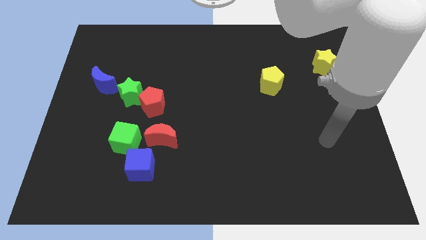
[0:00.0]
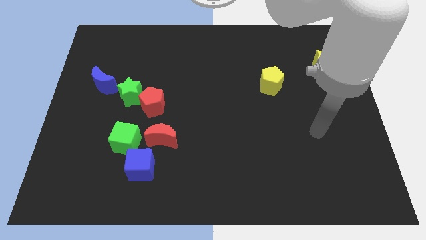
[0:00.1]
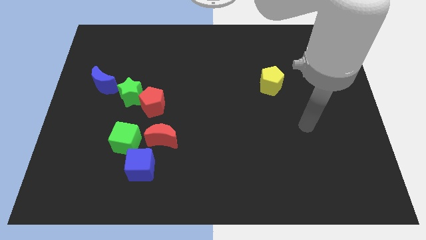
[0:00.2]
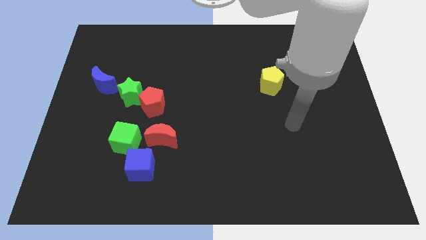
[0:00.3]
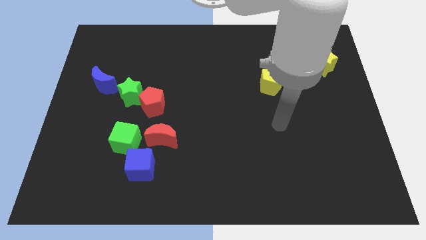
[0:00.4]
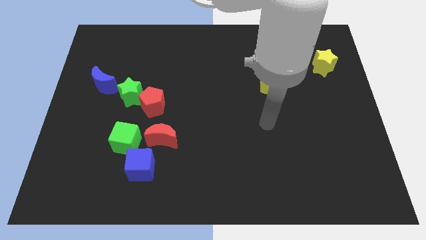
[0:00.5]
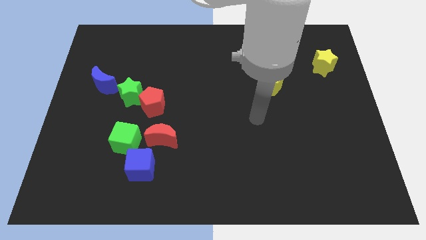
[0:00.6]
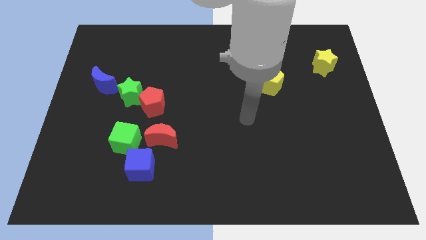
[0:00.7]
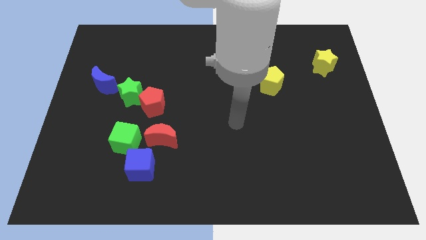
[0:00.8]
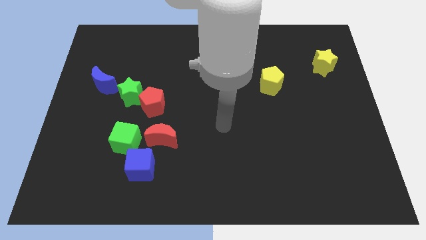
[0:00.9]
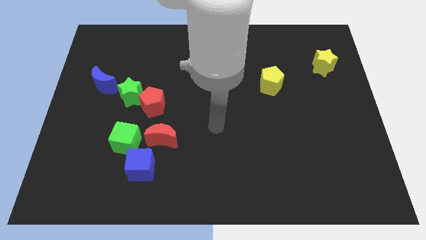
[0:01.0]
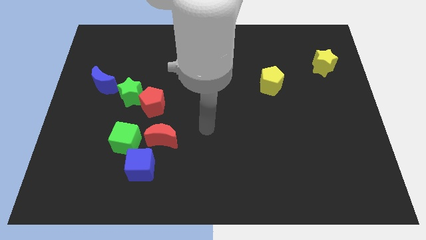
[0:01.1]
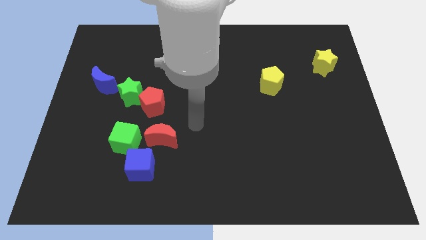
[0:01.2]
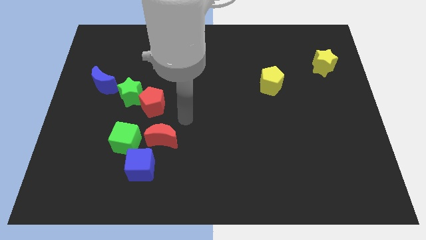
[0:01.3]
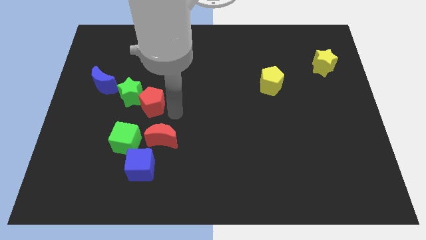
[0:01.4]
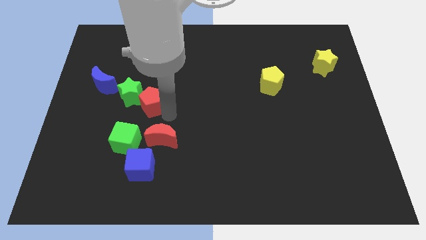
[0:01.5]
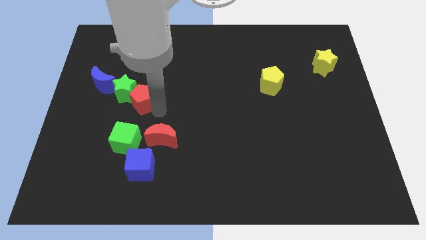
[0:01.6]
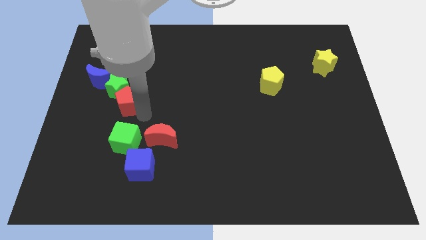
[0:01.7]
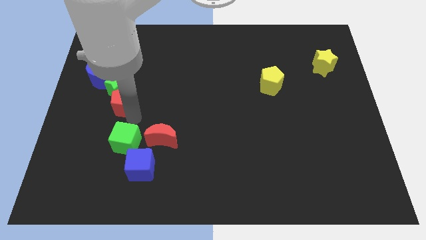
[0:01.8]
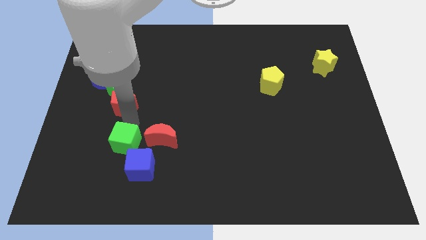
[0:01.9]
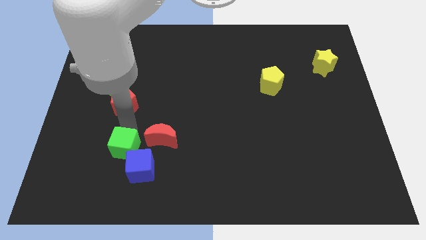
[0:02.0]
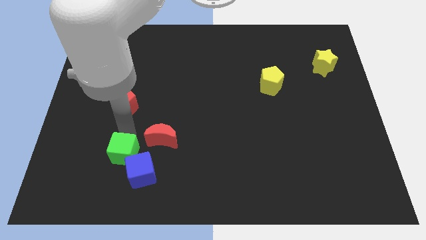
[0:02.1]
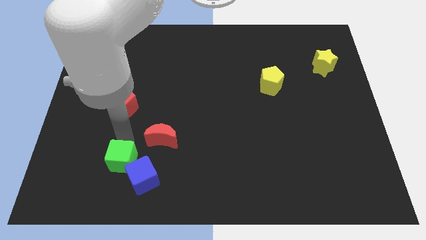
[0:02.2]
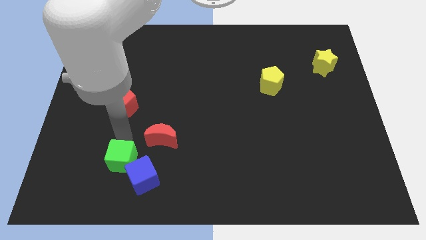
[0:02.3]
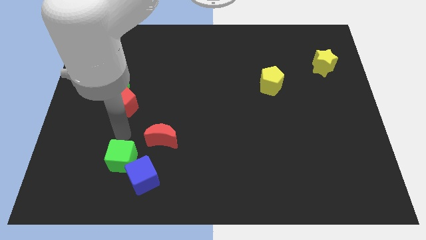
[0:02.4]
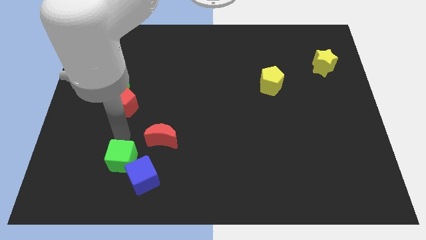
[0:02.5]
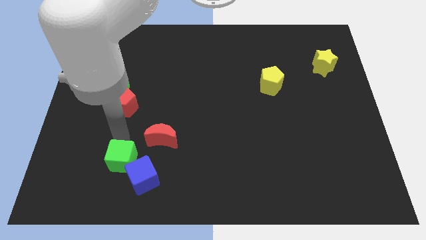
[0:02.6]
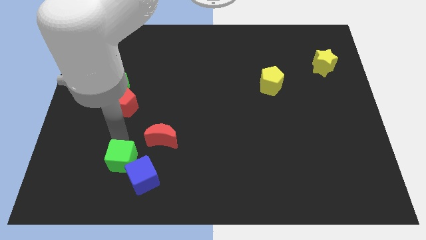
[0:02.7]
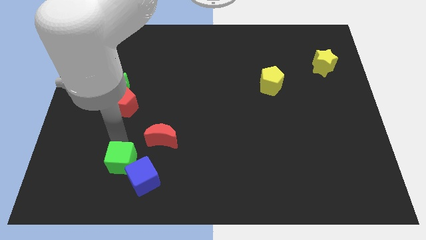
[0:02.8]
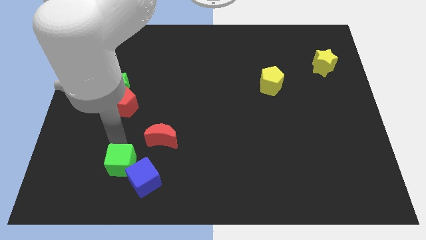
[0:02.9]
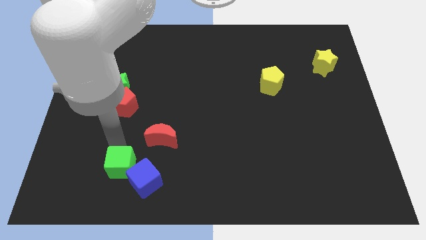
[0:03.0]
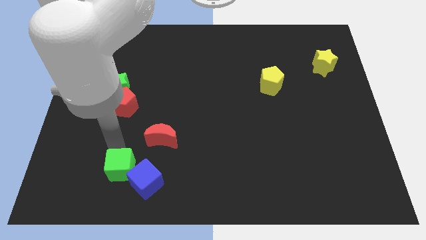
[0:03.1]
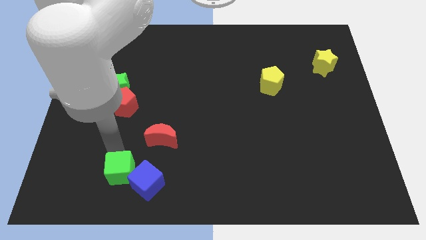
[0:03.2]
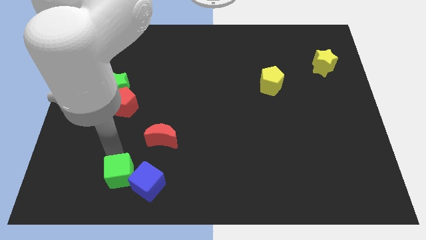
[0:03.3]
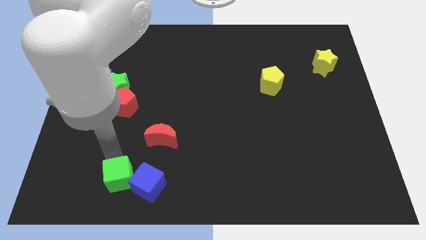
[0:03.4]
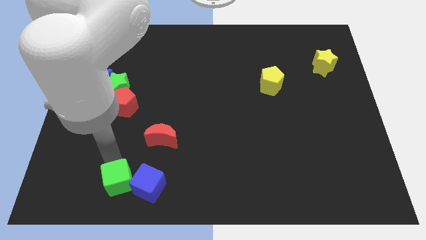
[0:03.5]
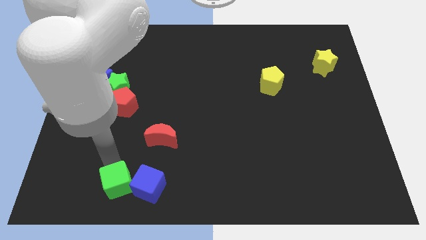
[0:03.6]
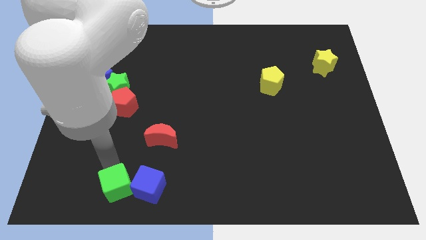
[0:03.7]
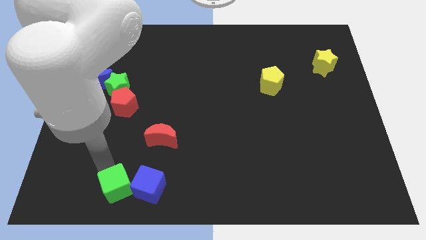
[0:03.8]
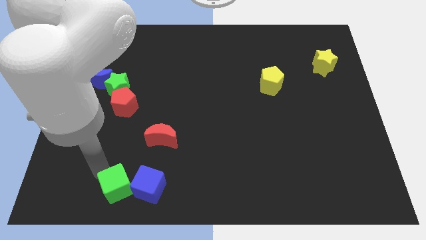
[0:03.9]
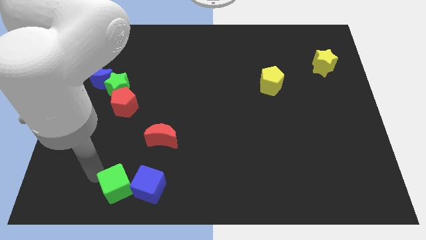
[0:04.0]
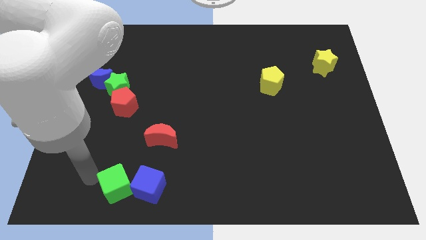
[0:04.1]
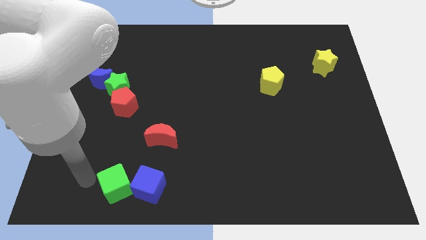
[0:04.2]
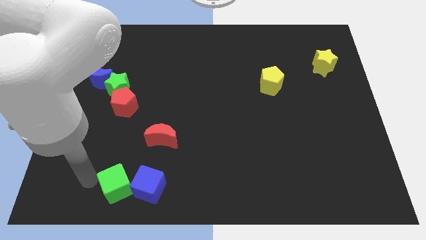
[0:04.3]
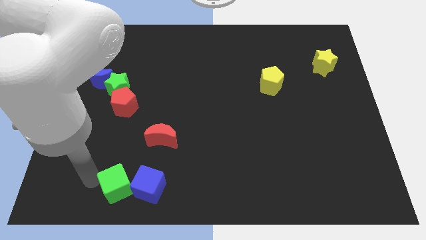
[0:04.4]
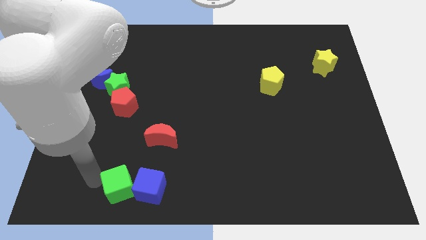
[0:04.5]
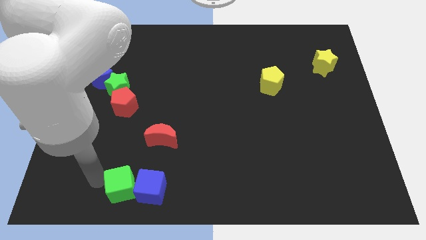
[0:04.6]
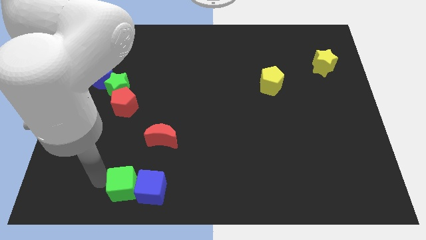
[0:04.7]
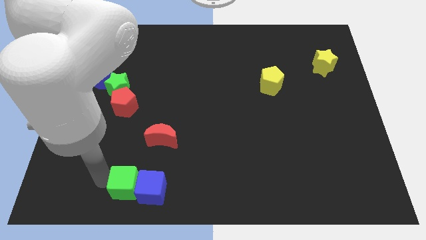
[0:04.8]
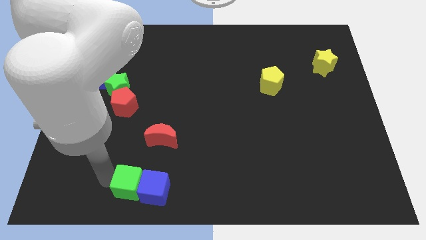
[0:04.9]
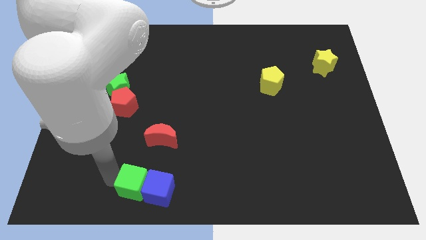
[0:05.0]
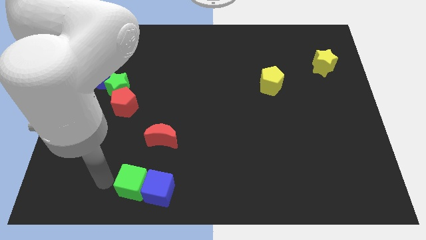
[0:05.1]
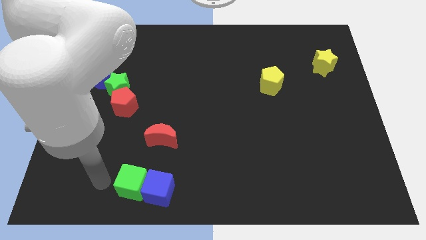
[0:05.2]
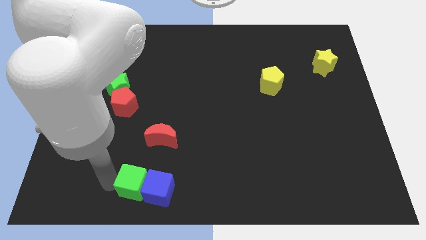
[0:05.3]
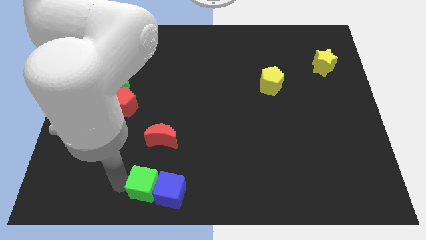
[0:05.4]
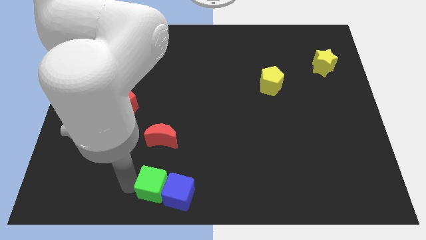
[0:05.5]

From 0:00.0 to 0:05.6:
push the green cube to the bottom side

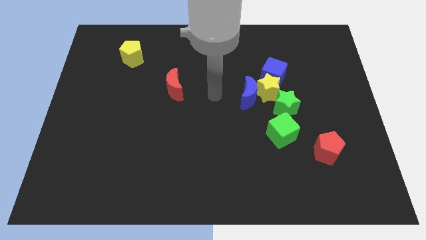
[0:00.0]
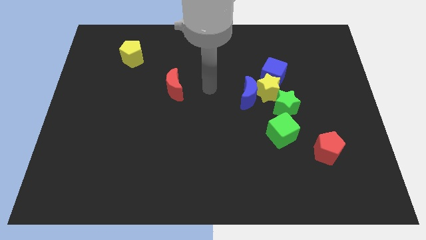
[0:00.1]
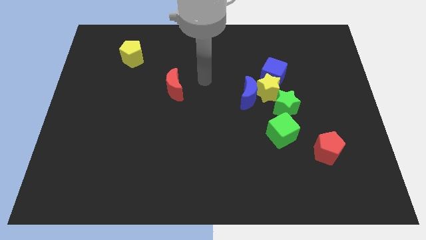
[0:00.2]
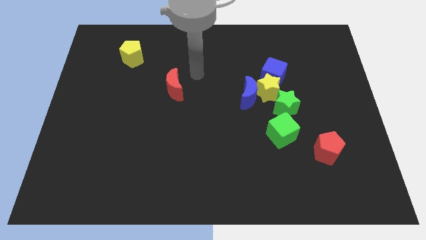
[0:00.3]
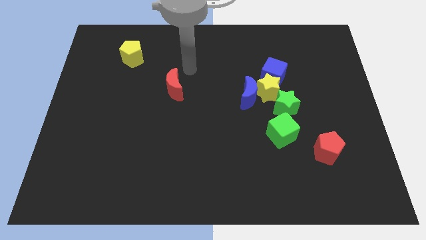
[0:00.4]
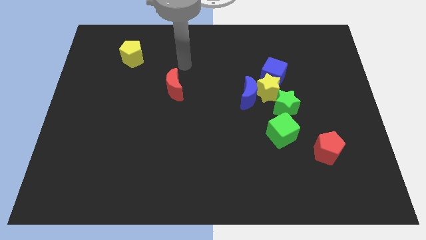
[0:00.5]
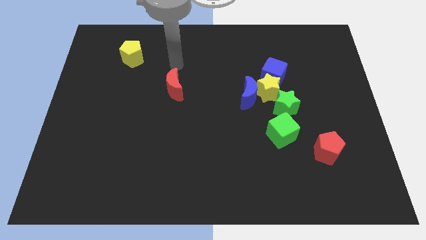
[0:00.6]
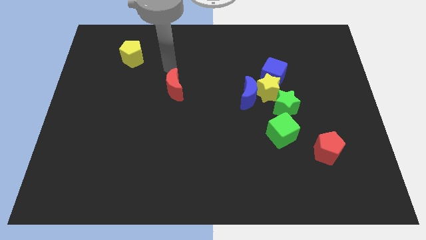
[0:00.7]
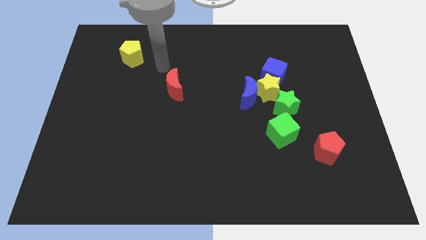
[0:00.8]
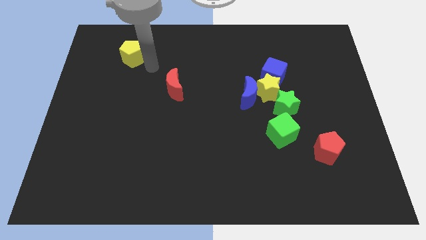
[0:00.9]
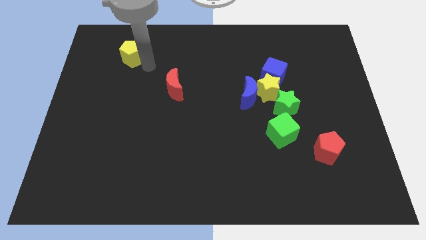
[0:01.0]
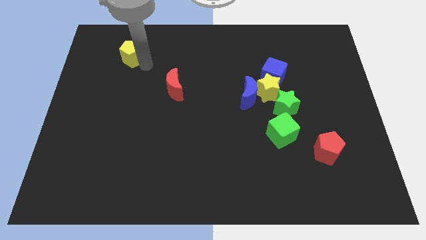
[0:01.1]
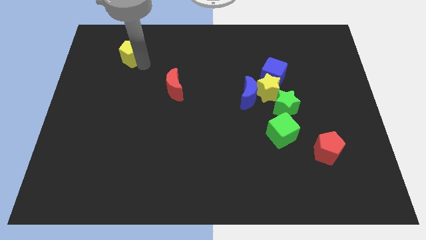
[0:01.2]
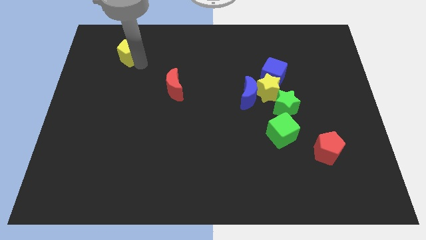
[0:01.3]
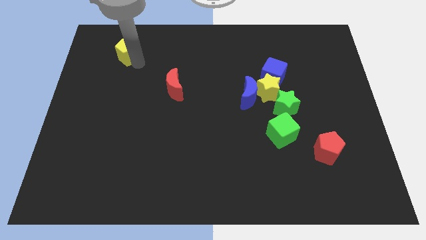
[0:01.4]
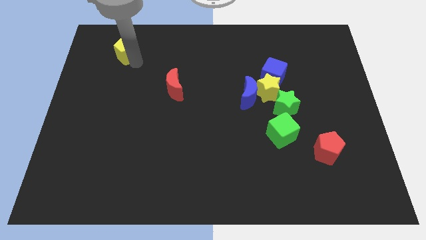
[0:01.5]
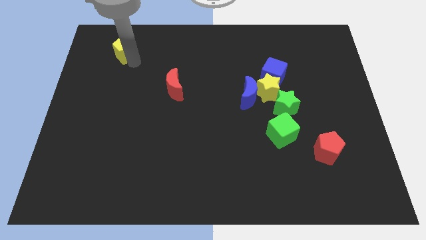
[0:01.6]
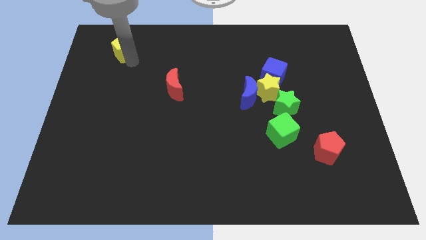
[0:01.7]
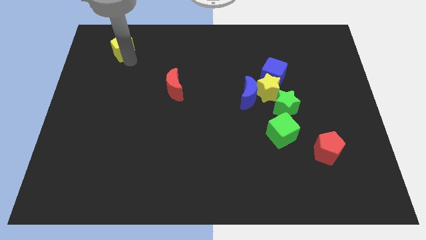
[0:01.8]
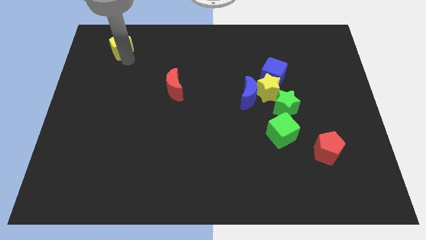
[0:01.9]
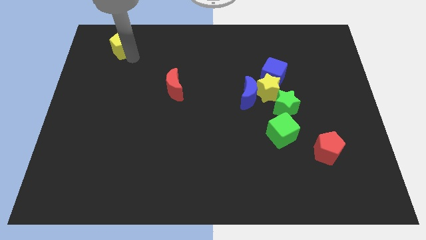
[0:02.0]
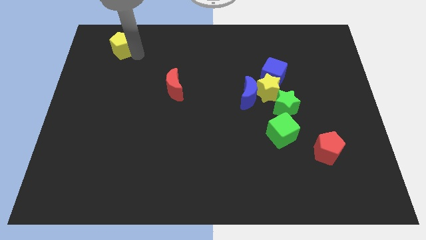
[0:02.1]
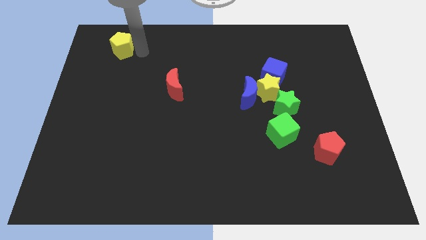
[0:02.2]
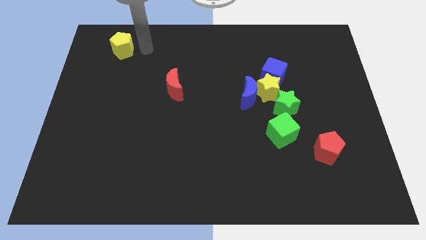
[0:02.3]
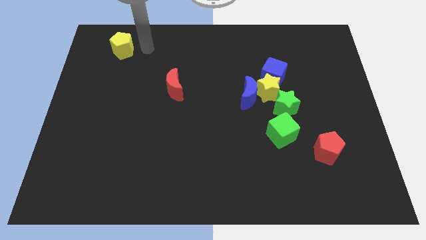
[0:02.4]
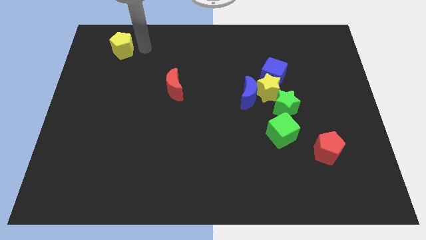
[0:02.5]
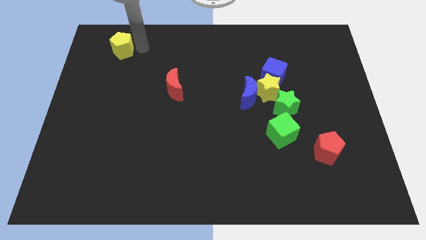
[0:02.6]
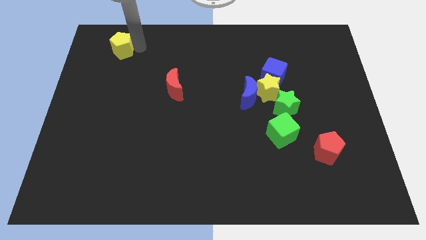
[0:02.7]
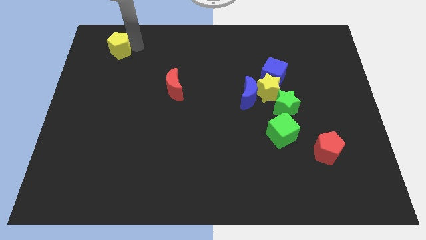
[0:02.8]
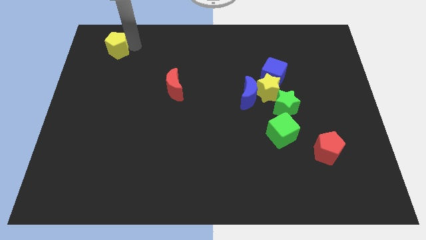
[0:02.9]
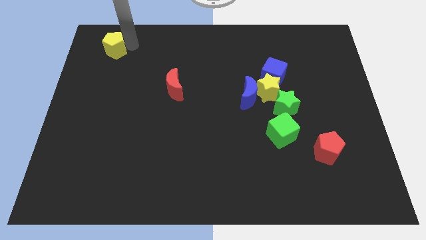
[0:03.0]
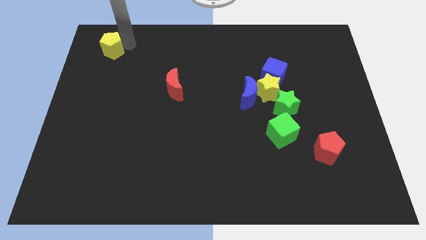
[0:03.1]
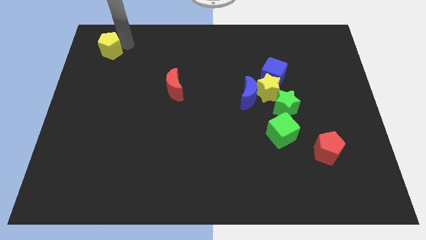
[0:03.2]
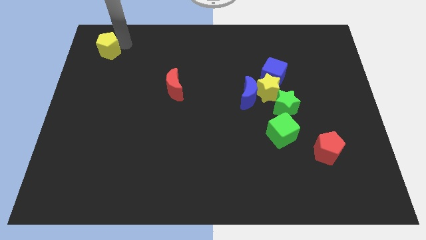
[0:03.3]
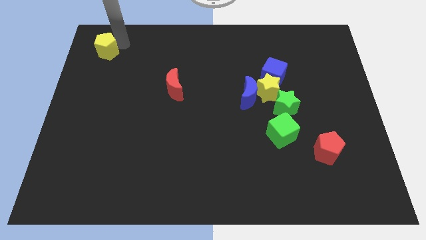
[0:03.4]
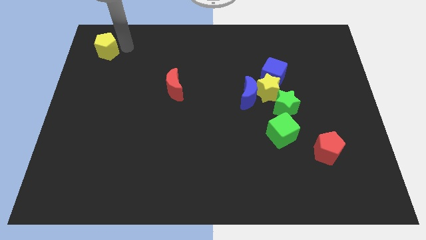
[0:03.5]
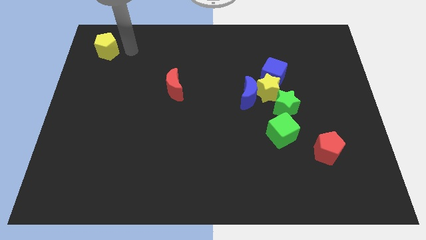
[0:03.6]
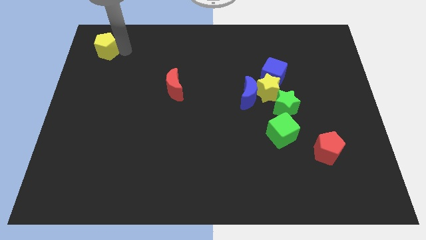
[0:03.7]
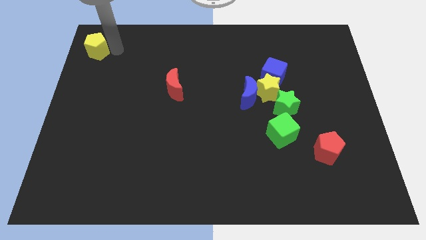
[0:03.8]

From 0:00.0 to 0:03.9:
push the yellow pentagon to the top left corner
